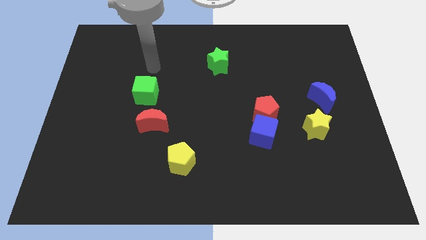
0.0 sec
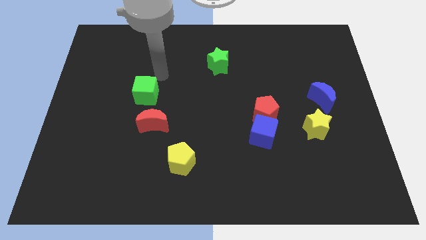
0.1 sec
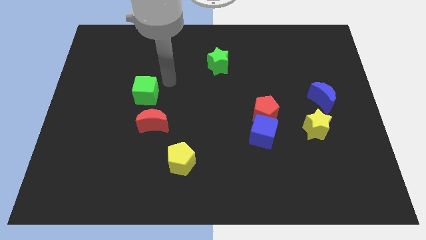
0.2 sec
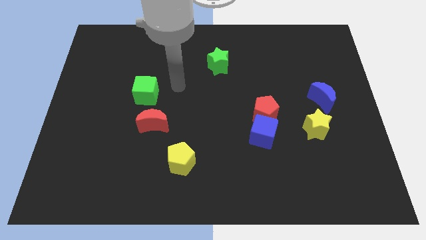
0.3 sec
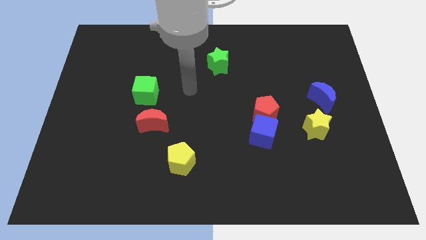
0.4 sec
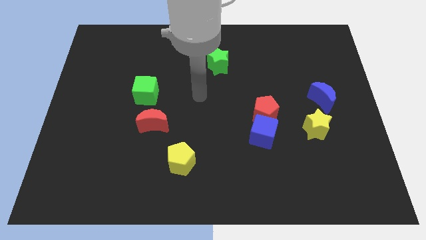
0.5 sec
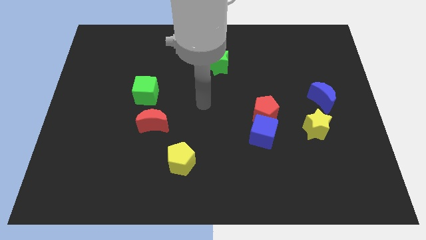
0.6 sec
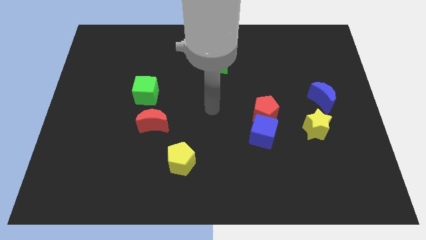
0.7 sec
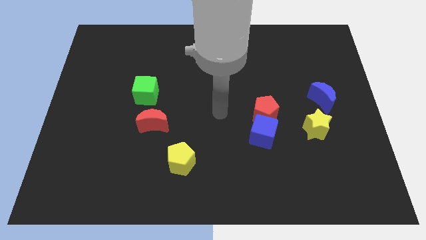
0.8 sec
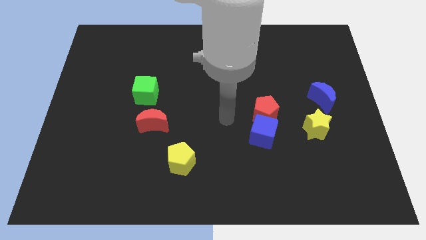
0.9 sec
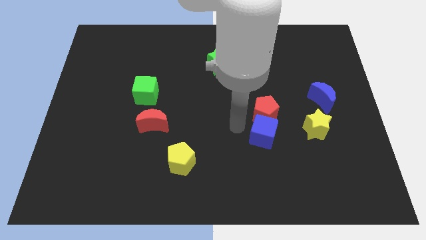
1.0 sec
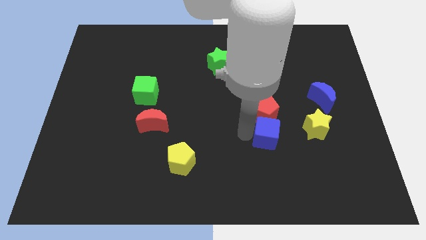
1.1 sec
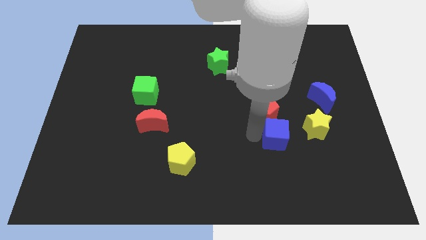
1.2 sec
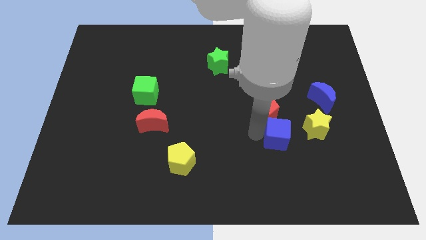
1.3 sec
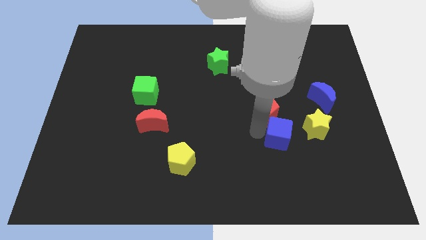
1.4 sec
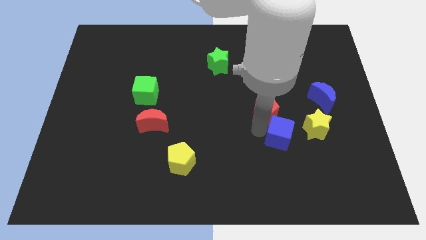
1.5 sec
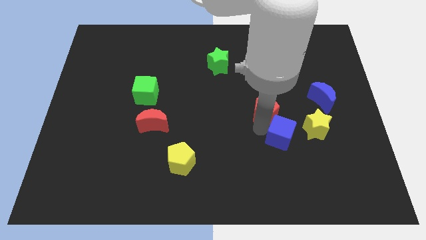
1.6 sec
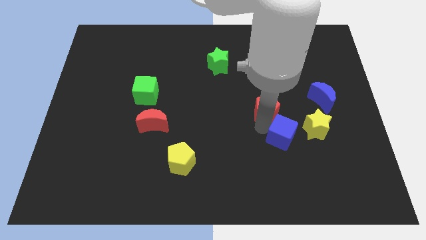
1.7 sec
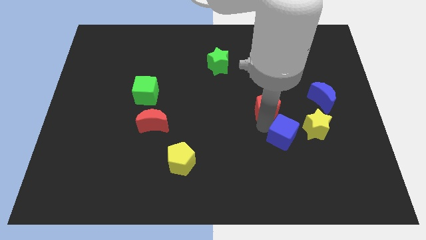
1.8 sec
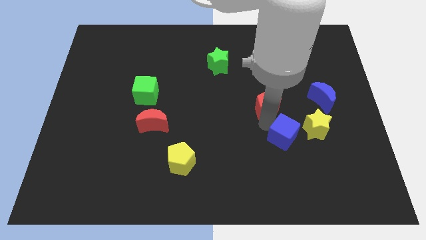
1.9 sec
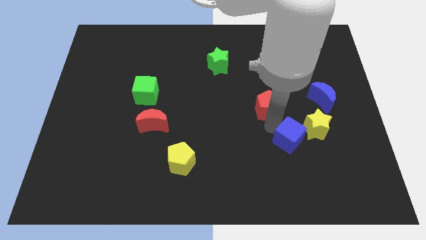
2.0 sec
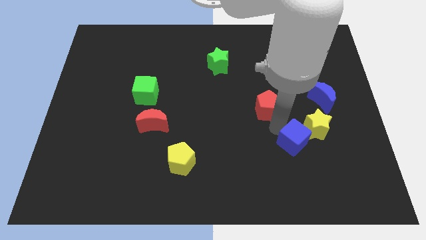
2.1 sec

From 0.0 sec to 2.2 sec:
pull the red pentagon apart from the blue cube

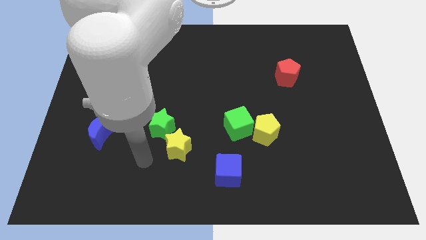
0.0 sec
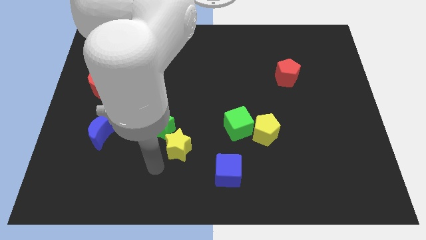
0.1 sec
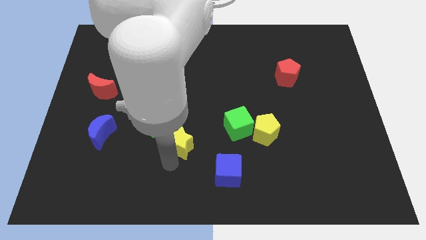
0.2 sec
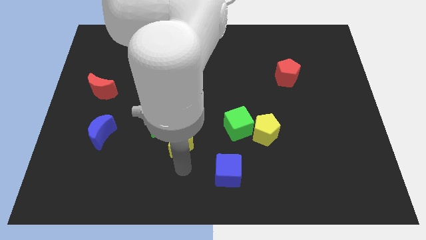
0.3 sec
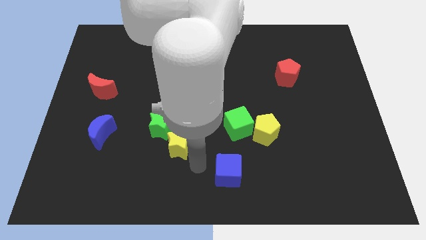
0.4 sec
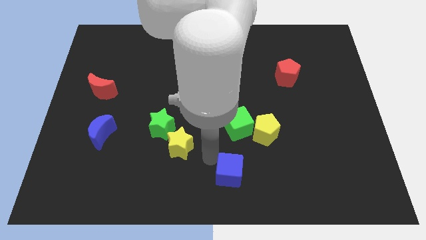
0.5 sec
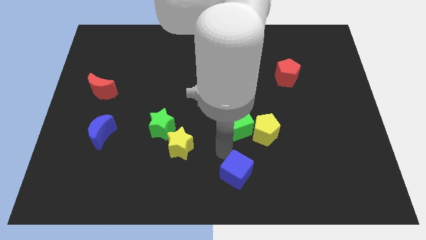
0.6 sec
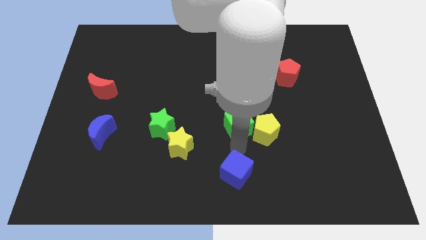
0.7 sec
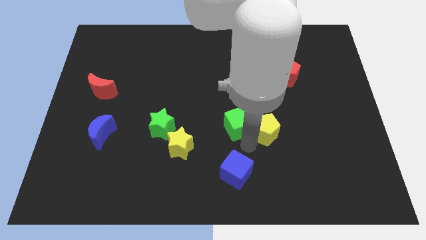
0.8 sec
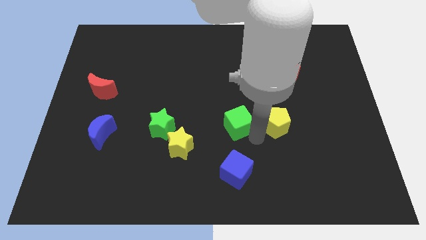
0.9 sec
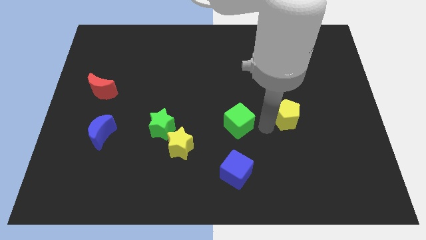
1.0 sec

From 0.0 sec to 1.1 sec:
separate the green cube from the yellow pentagon

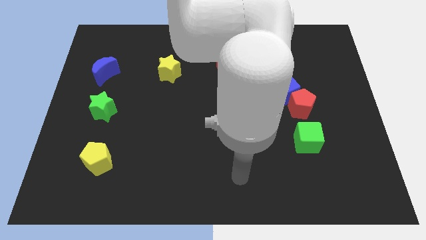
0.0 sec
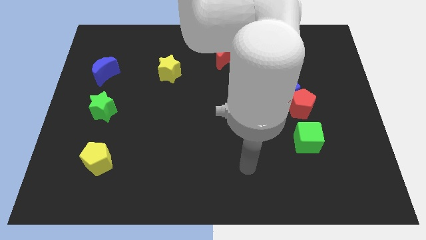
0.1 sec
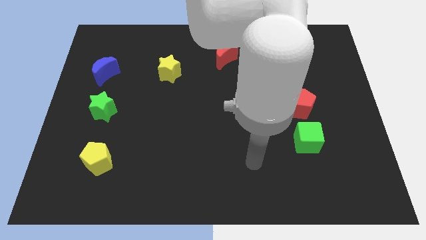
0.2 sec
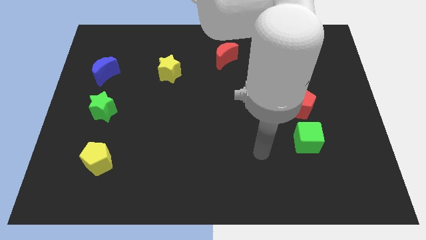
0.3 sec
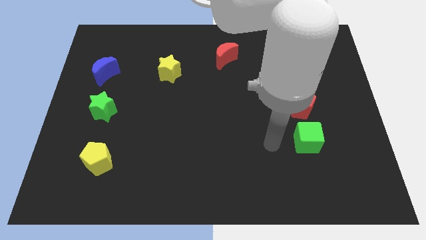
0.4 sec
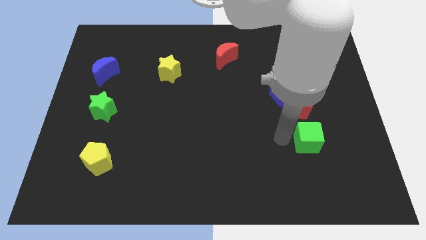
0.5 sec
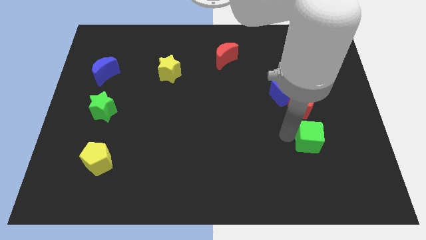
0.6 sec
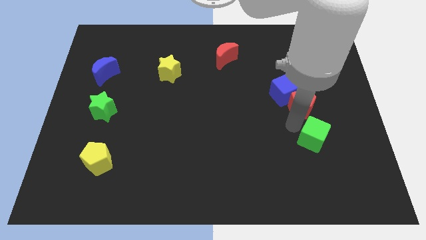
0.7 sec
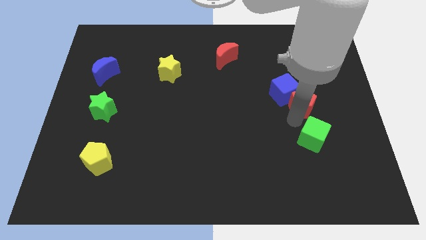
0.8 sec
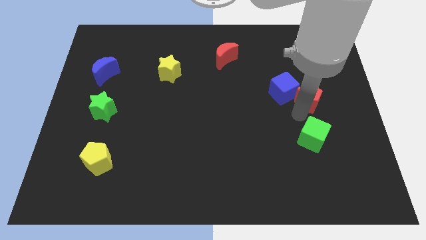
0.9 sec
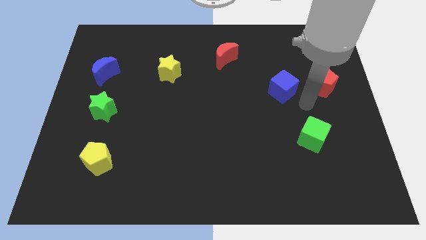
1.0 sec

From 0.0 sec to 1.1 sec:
pull the blue cube apart from the red pentagon

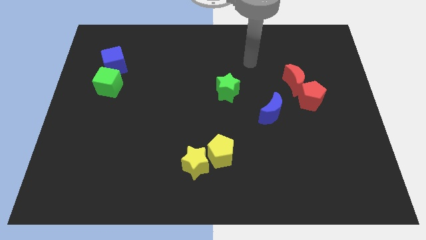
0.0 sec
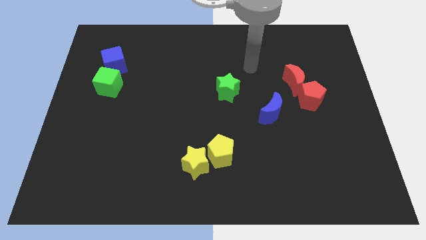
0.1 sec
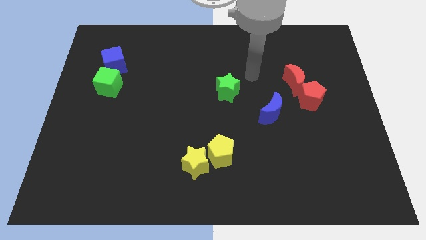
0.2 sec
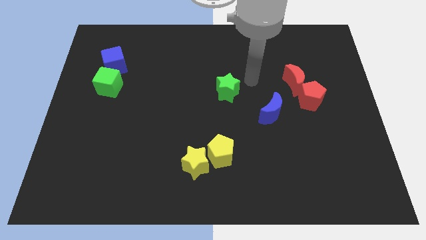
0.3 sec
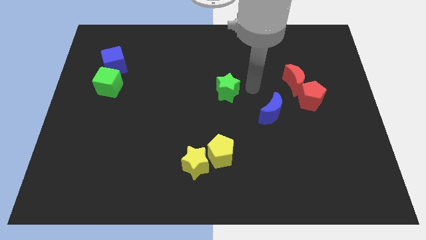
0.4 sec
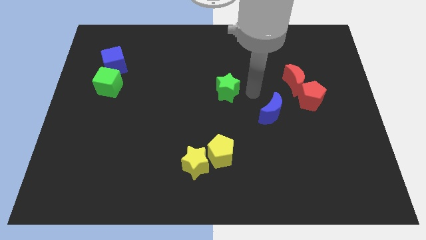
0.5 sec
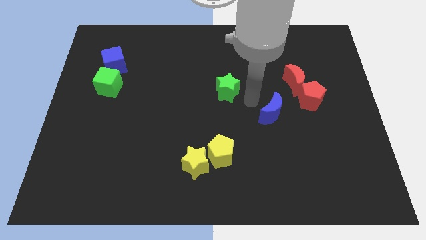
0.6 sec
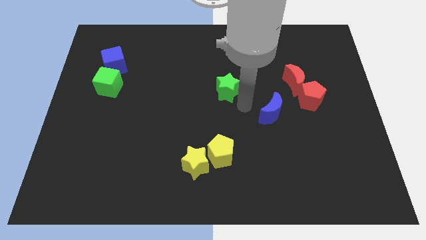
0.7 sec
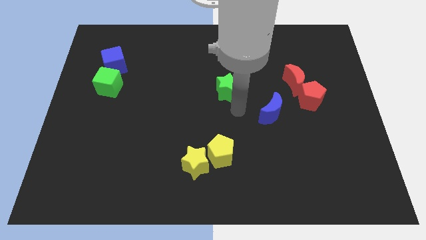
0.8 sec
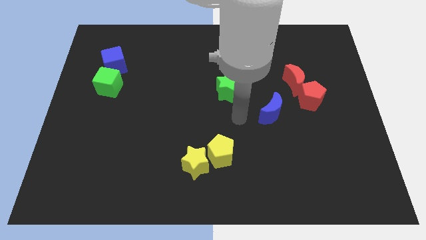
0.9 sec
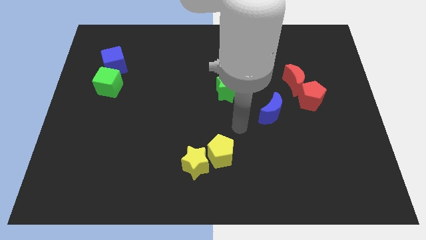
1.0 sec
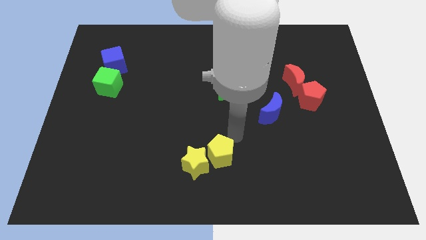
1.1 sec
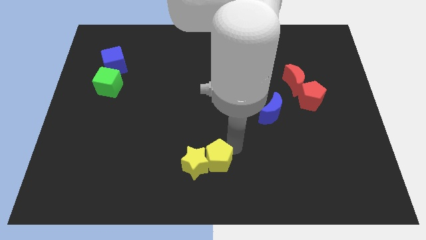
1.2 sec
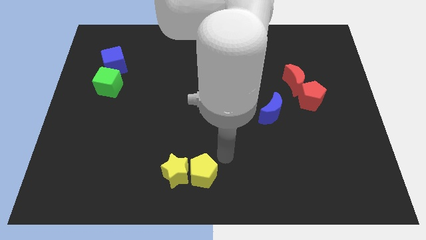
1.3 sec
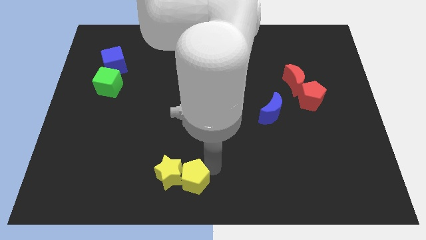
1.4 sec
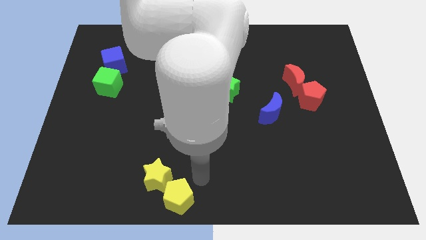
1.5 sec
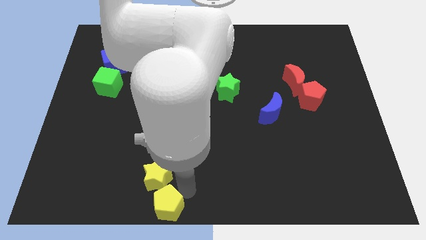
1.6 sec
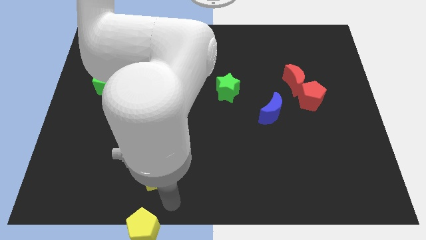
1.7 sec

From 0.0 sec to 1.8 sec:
move the yellow star away from the yellow pentagon

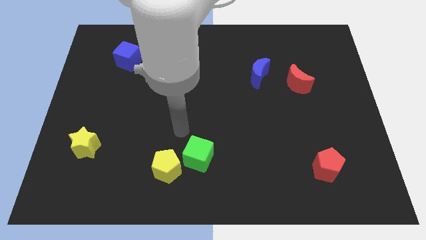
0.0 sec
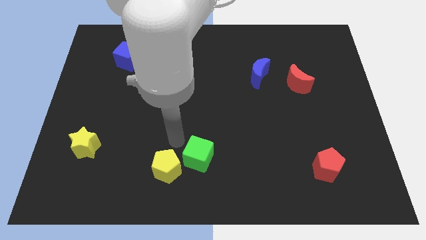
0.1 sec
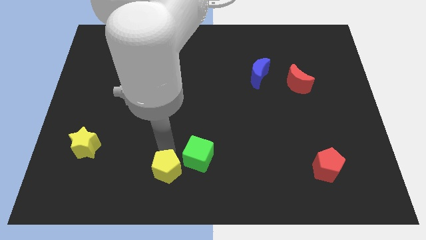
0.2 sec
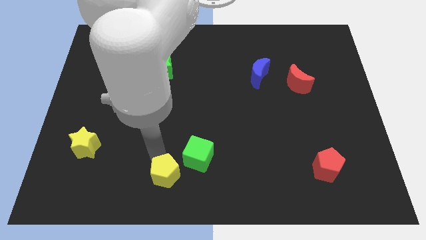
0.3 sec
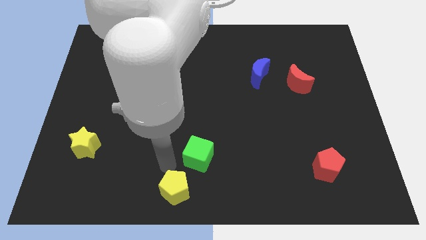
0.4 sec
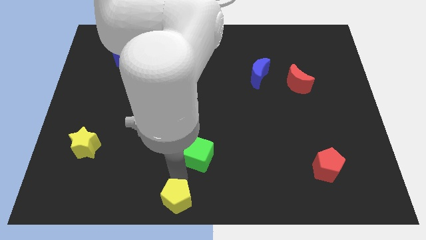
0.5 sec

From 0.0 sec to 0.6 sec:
pull the green cube apart from the yellow pentagon

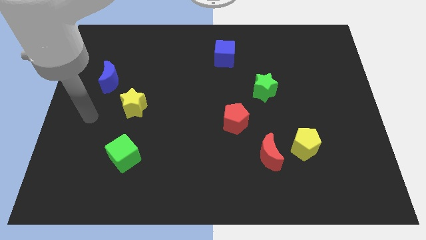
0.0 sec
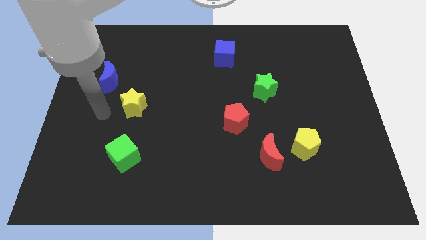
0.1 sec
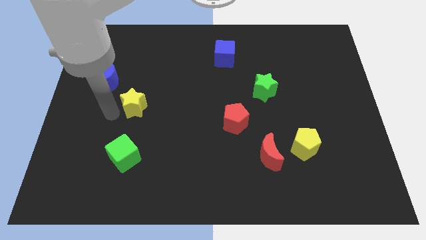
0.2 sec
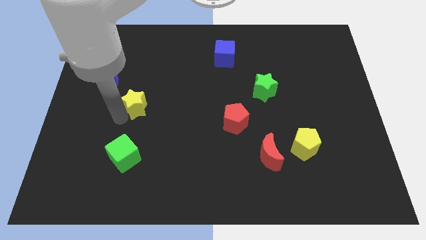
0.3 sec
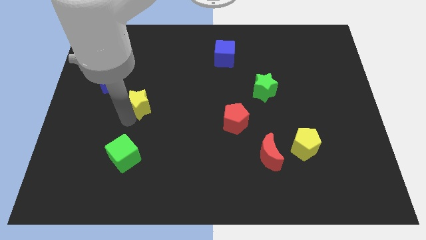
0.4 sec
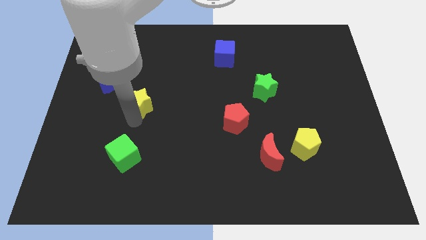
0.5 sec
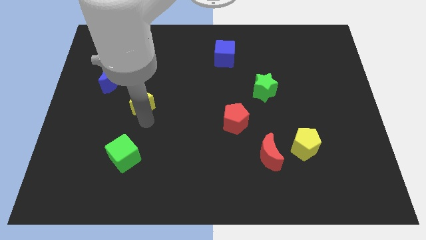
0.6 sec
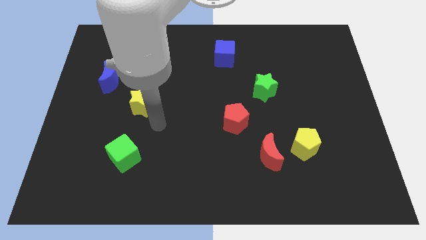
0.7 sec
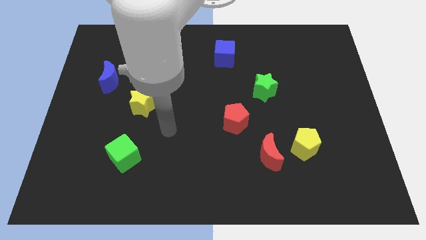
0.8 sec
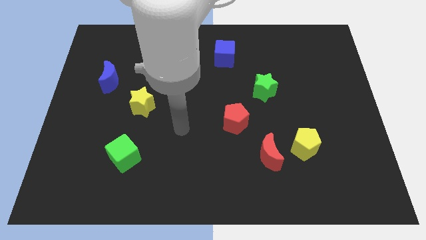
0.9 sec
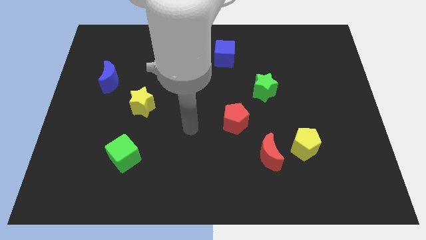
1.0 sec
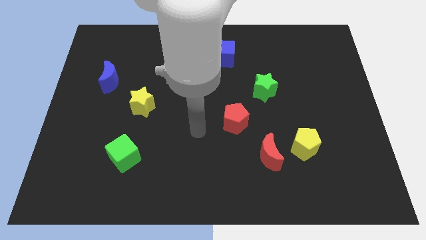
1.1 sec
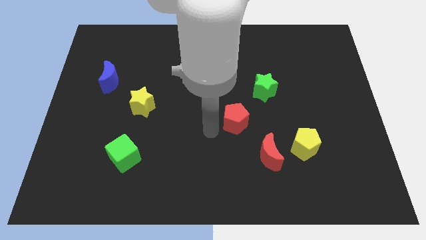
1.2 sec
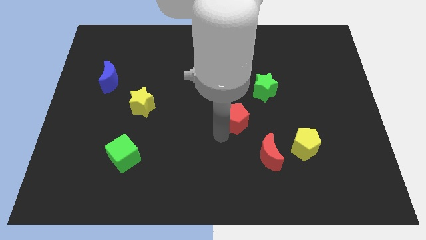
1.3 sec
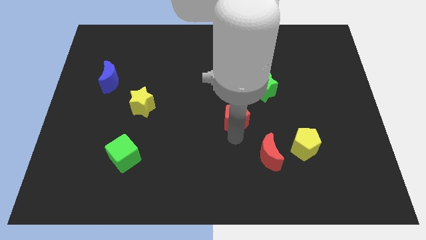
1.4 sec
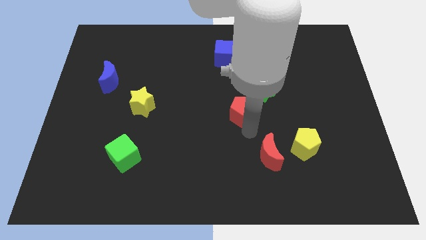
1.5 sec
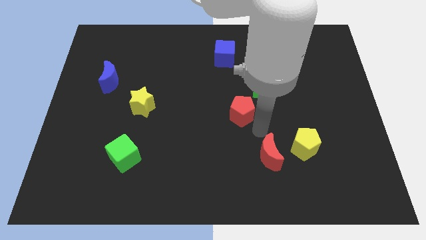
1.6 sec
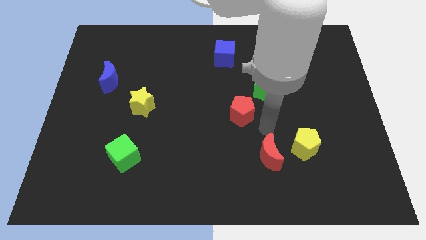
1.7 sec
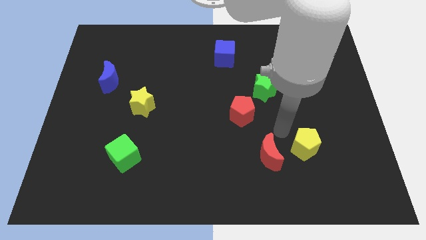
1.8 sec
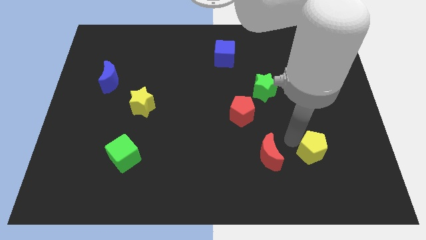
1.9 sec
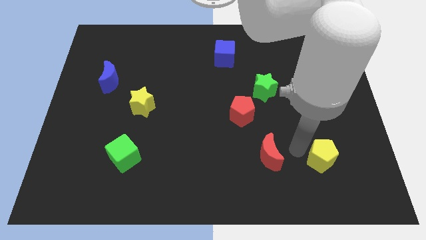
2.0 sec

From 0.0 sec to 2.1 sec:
move the red moon away from the yellow pentagon

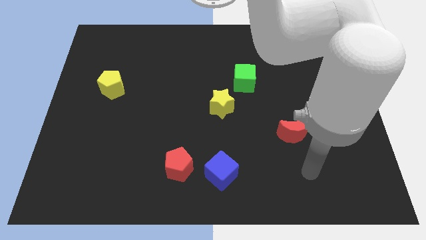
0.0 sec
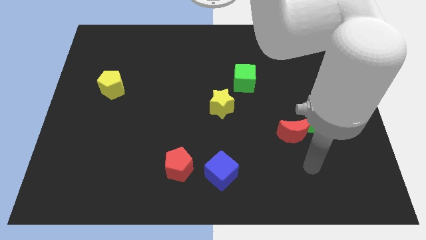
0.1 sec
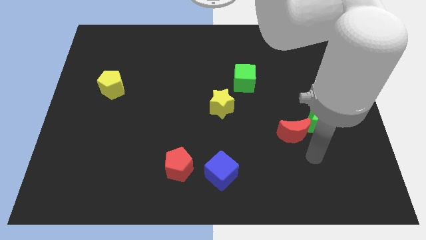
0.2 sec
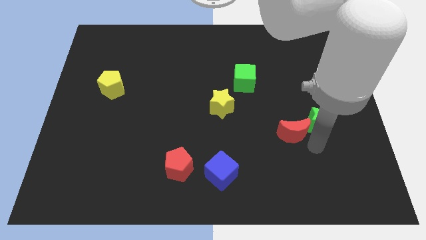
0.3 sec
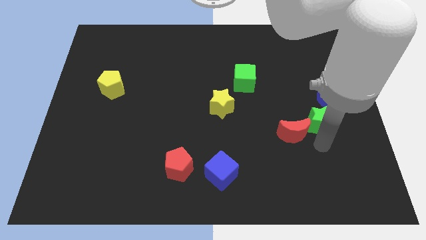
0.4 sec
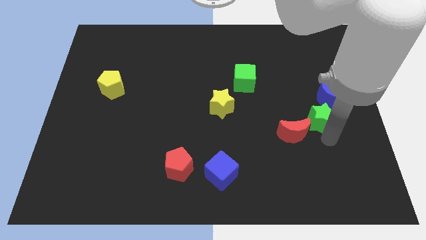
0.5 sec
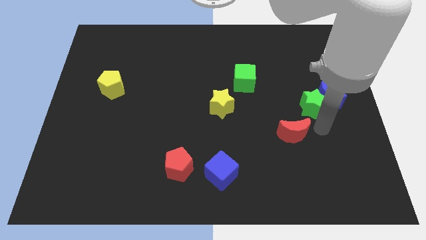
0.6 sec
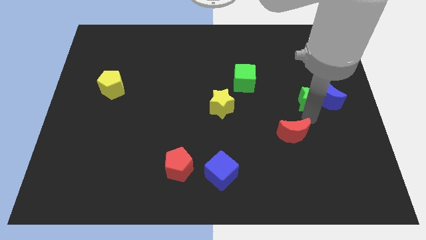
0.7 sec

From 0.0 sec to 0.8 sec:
move the red moon away from the green star
